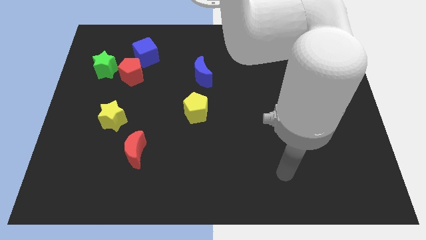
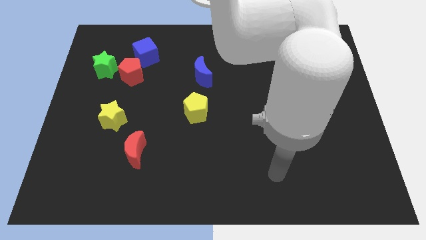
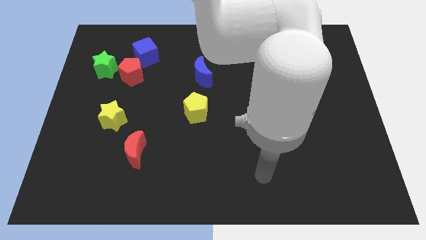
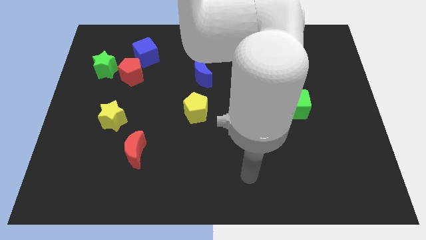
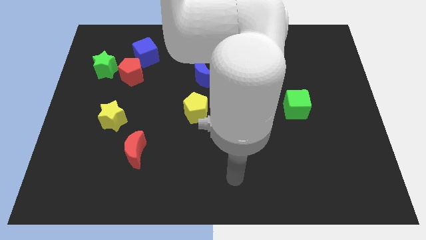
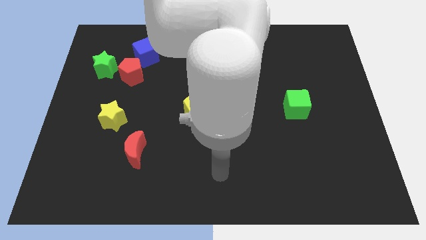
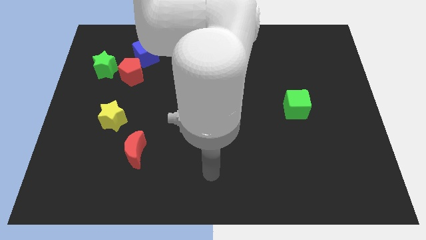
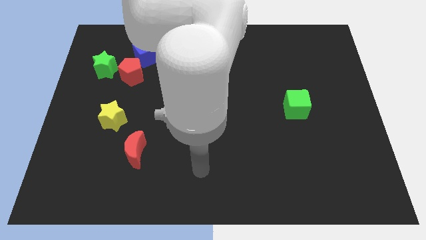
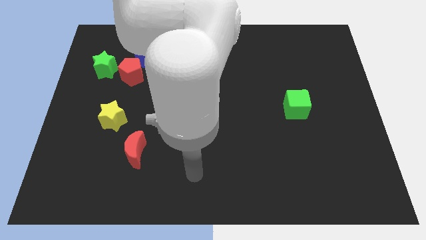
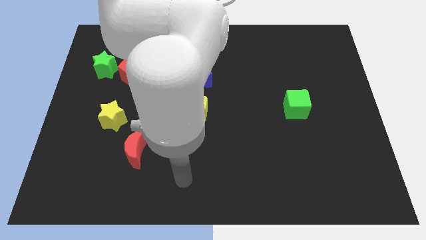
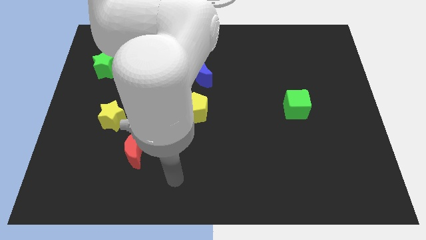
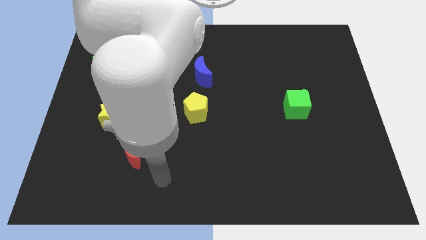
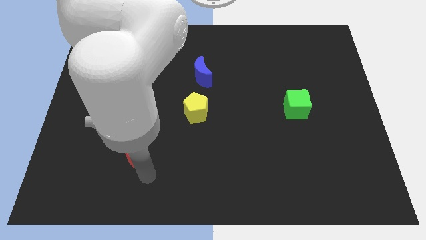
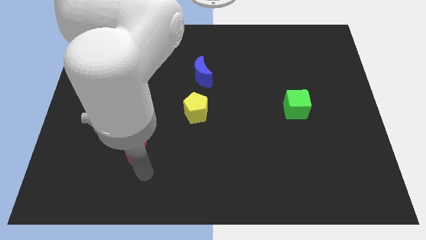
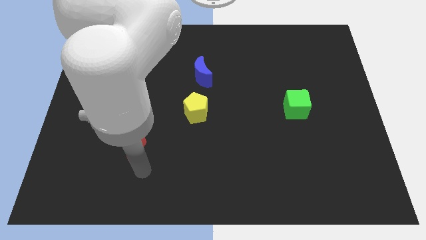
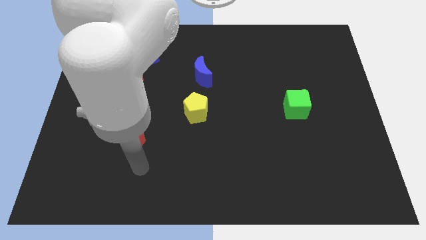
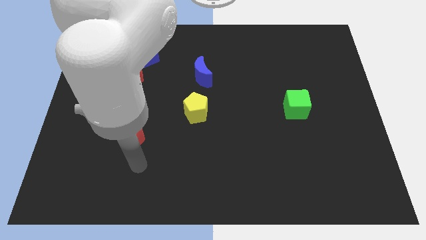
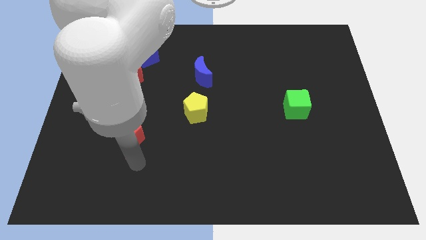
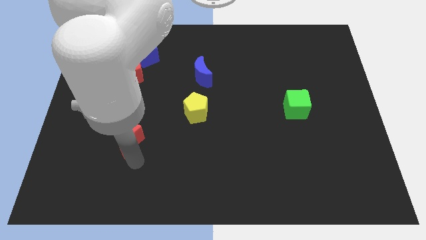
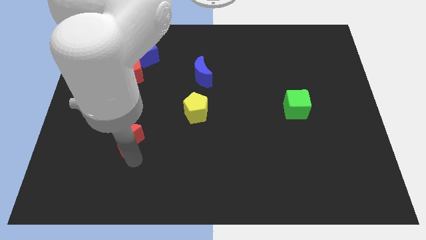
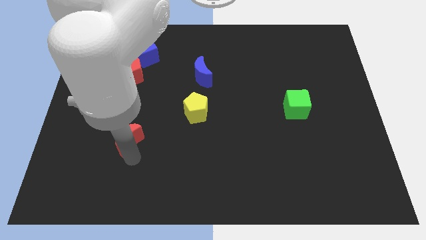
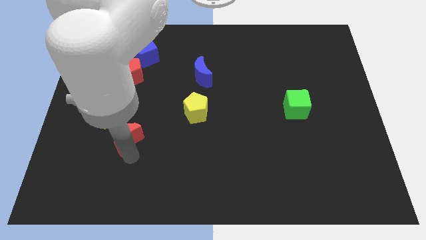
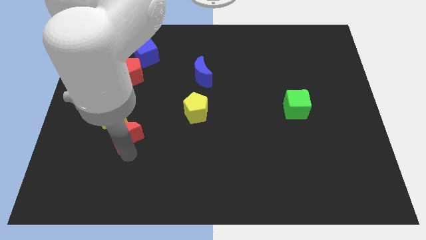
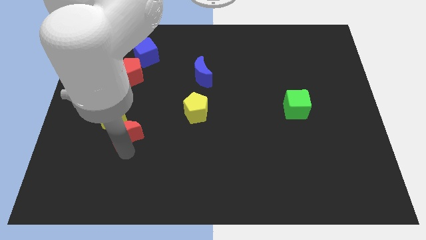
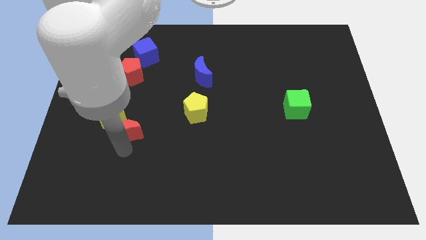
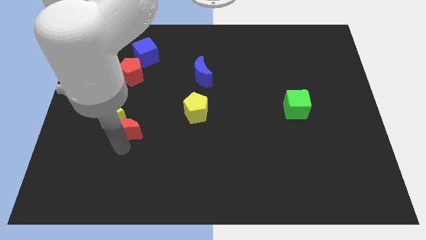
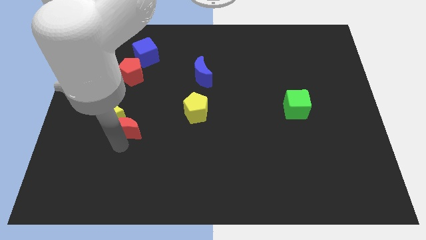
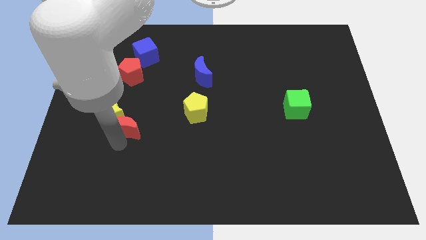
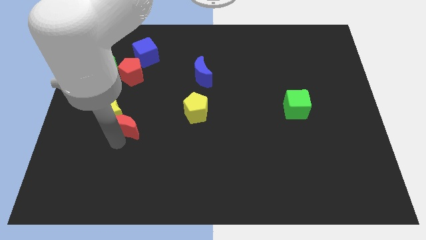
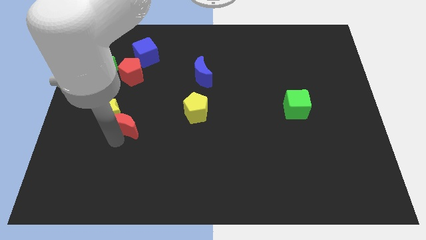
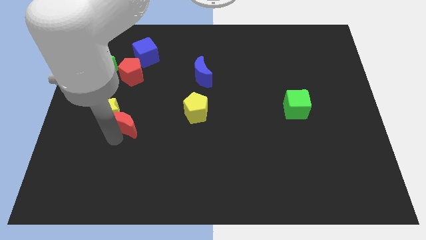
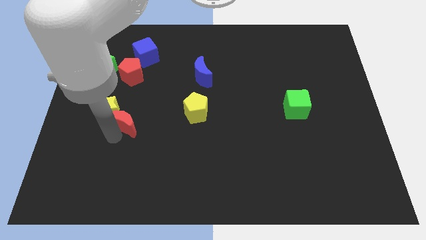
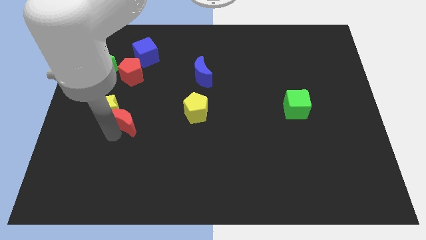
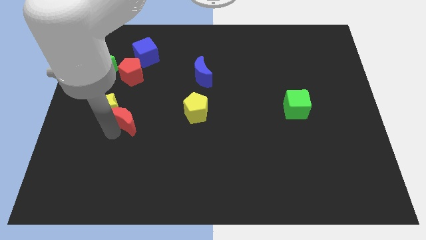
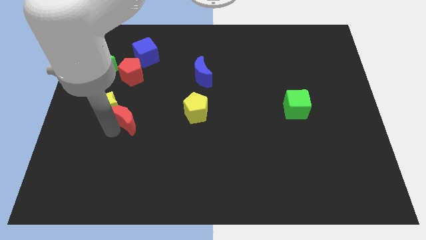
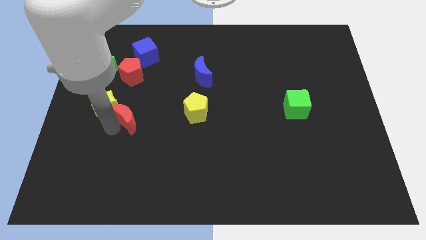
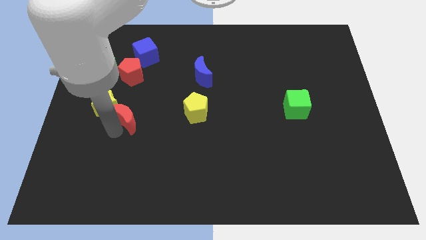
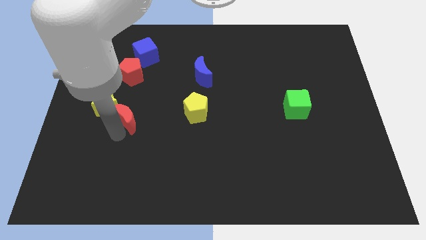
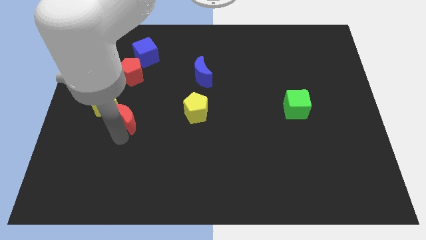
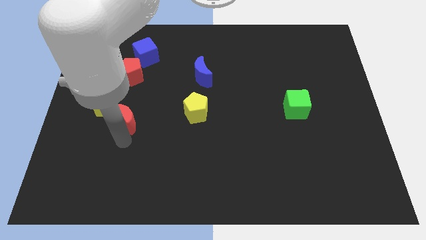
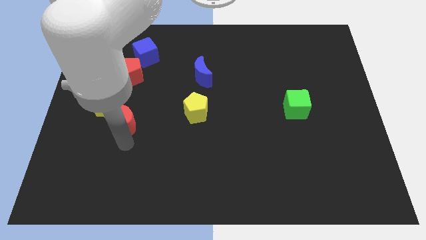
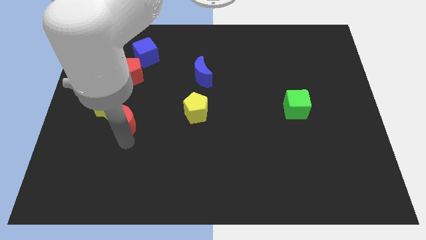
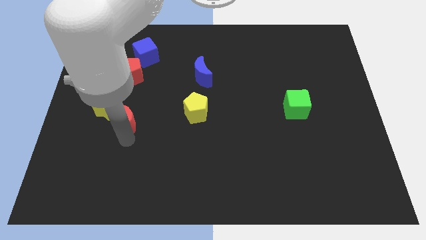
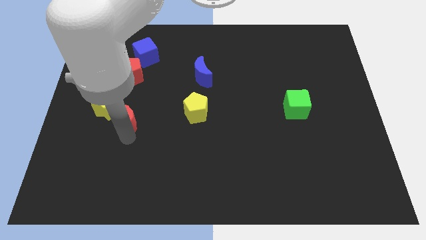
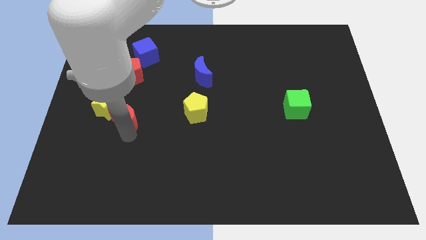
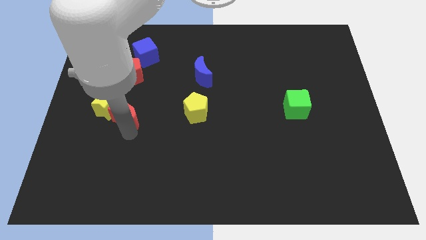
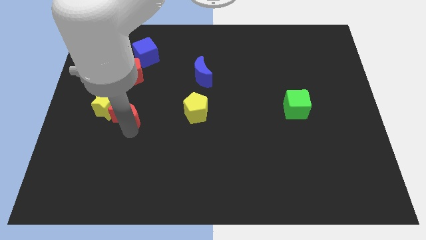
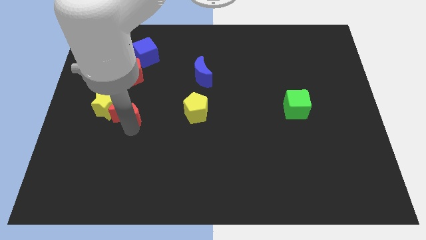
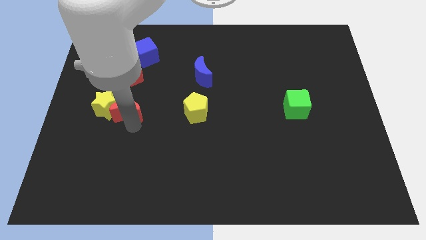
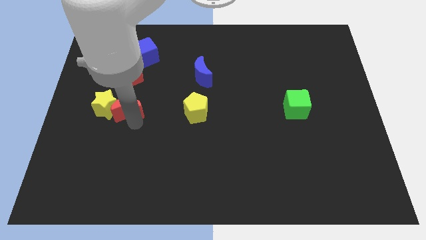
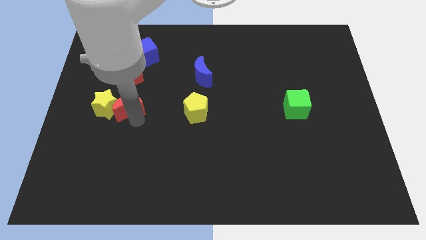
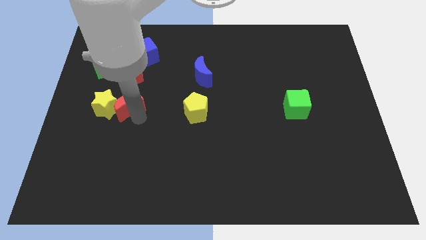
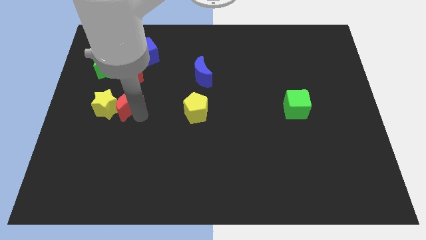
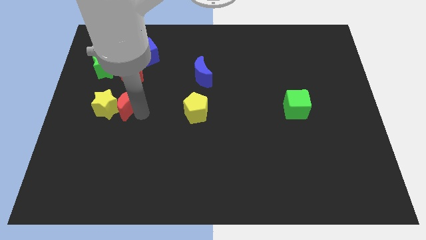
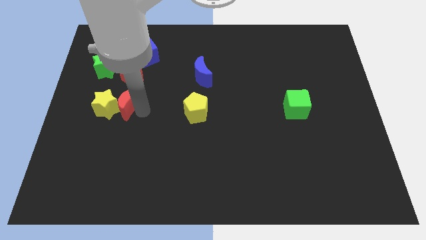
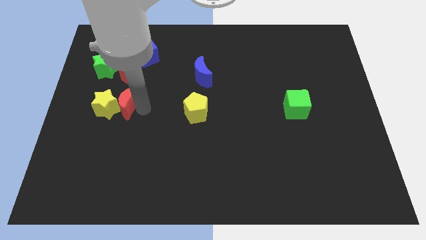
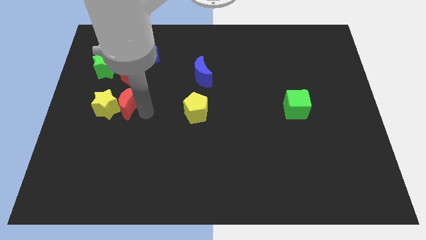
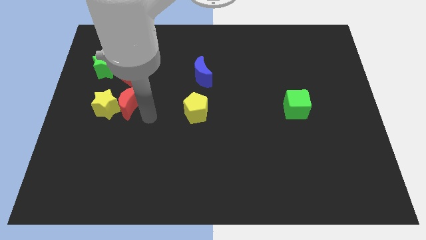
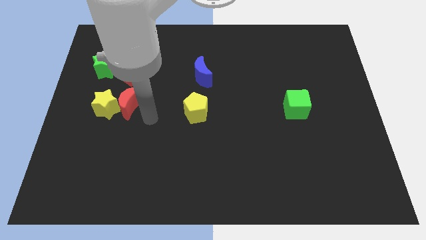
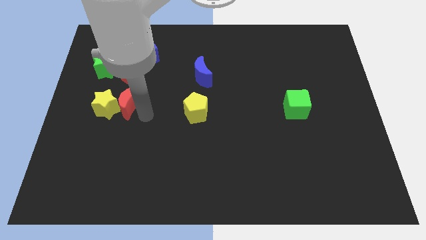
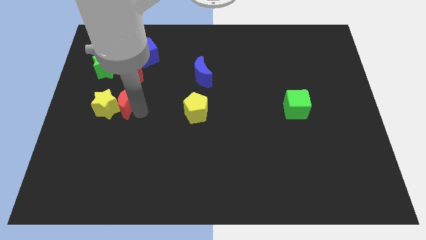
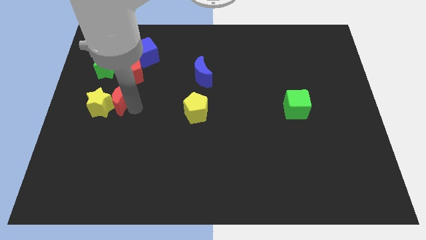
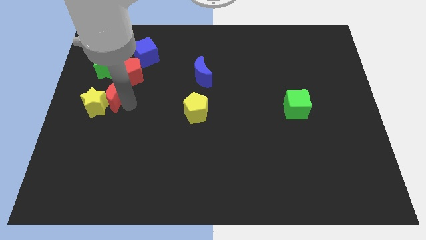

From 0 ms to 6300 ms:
slide the red moon diagonally down and to the left of the red pentagon

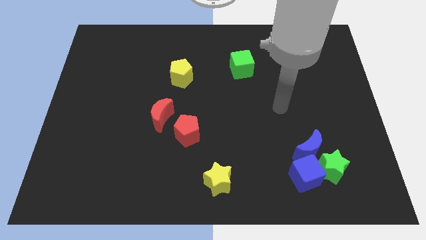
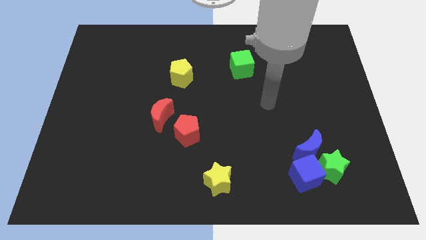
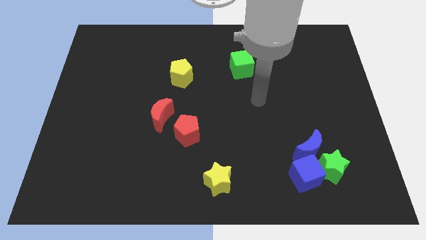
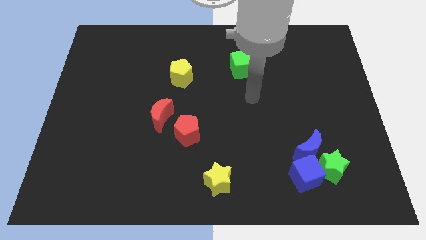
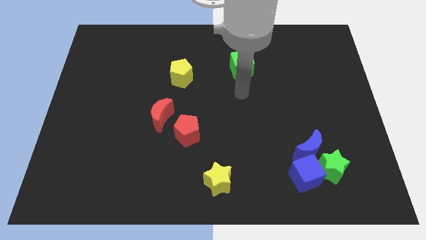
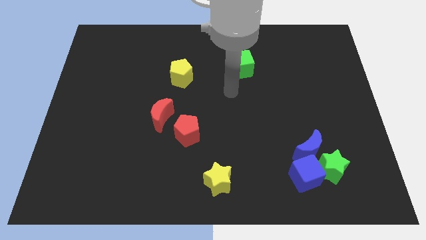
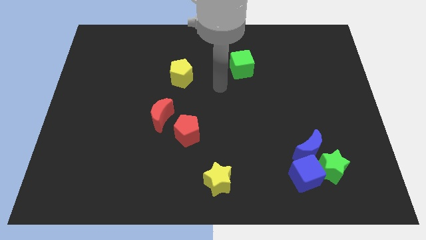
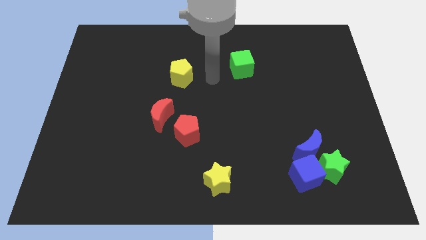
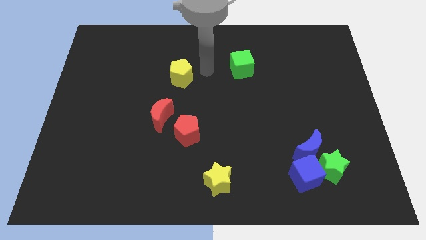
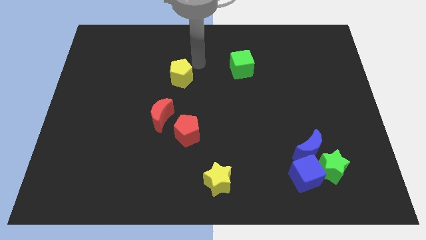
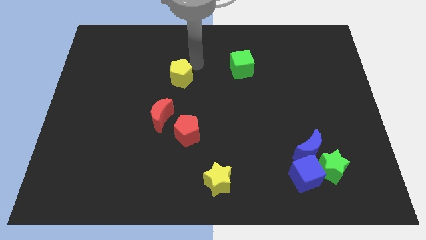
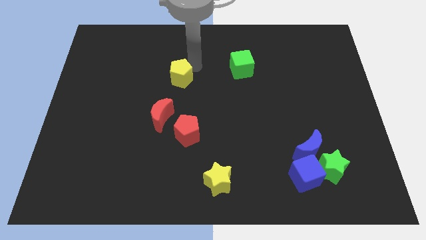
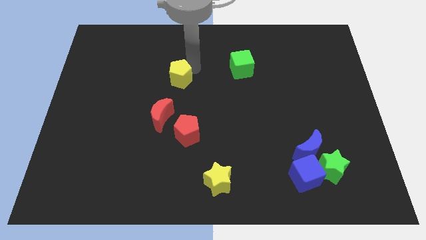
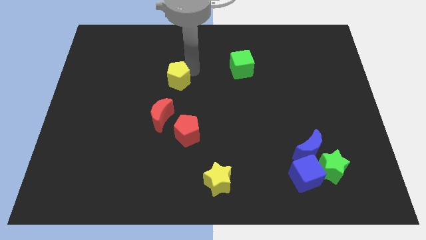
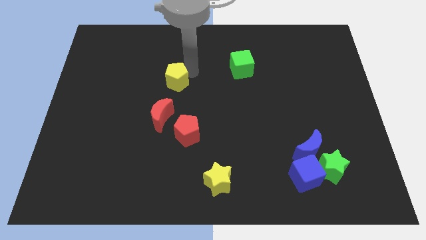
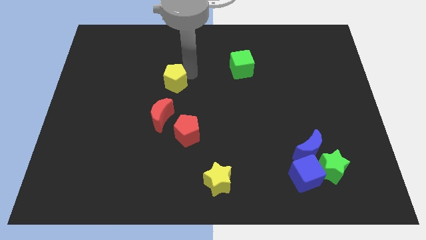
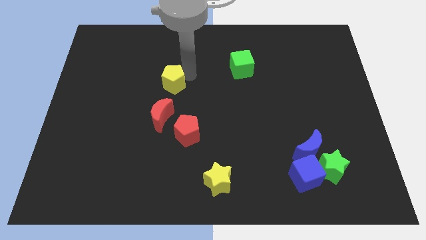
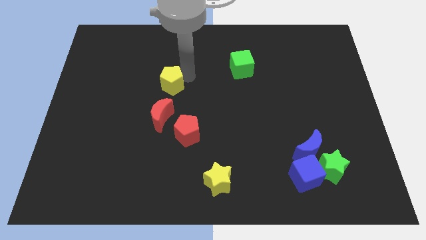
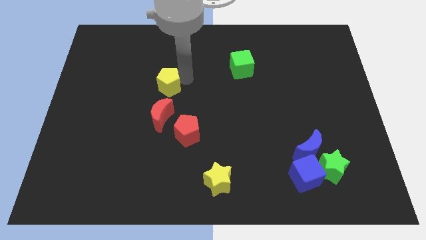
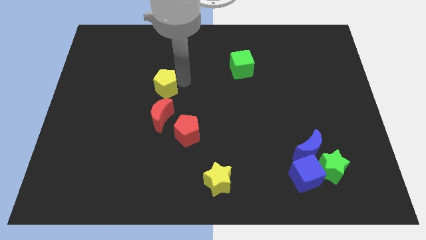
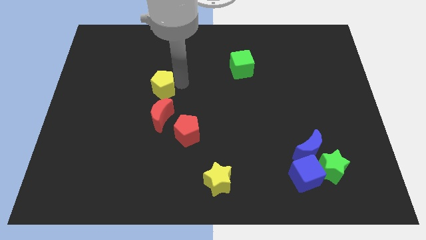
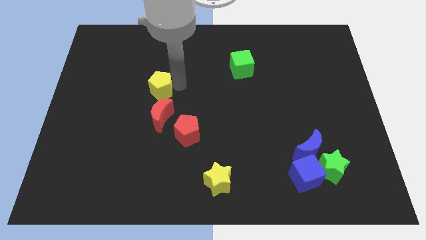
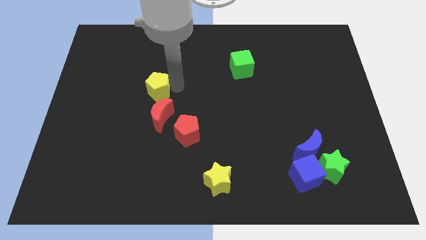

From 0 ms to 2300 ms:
slide the yellow pentagon to the top left of the red moon
